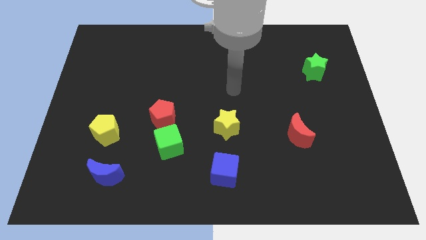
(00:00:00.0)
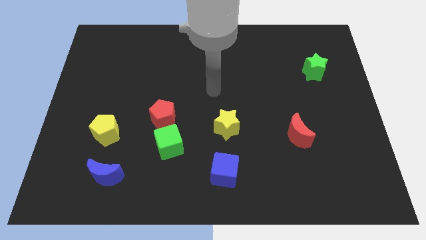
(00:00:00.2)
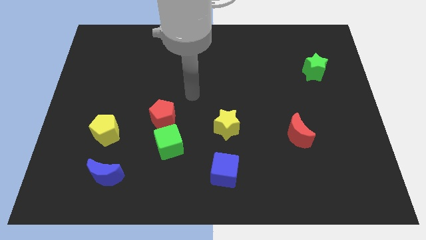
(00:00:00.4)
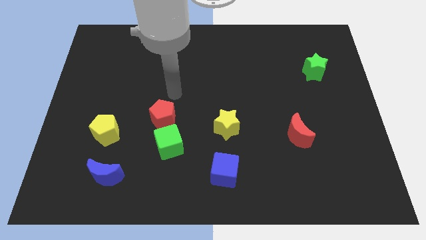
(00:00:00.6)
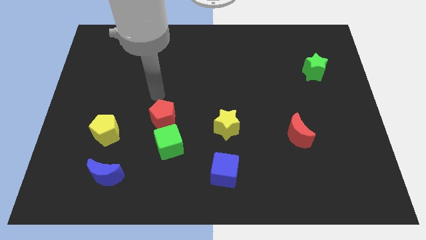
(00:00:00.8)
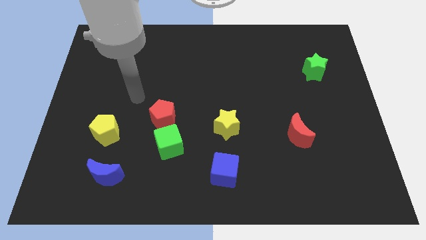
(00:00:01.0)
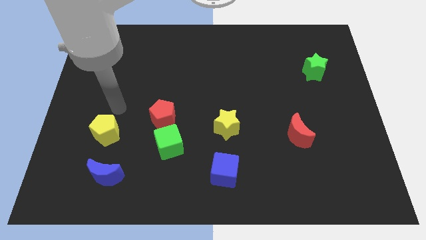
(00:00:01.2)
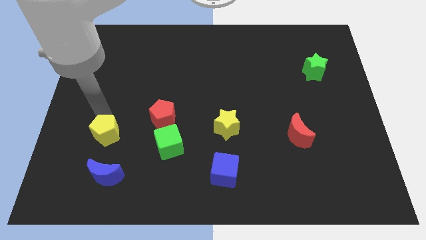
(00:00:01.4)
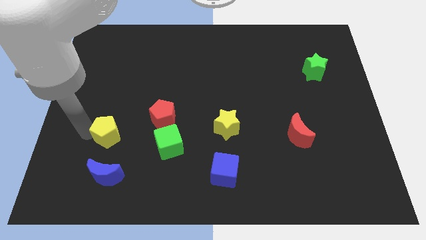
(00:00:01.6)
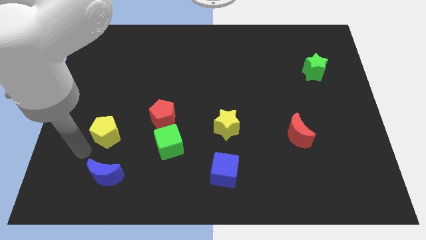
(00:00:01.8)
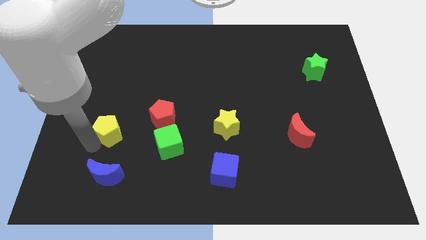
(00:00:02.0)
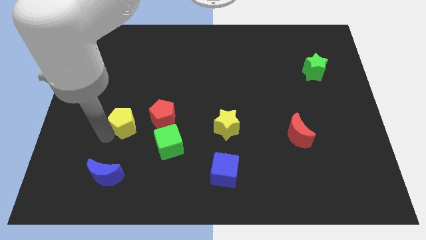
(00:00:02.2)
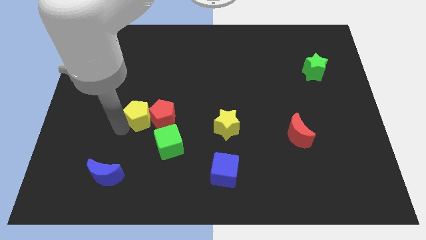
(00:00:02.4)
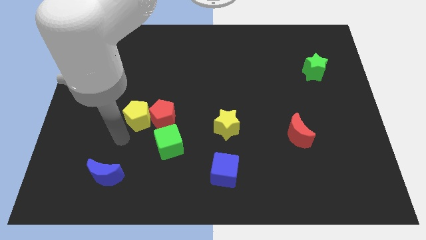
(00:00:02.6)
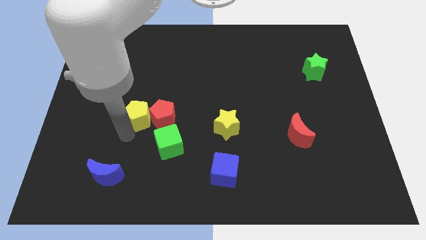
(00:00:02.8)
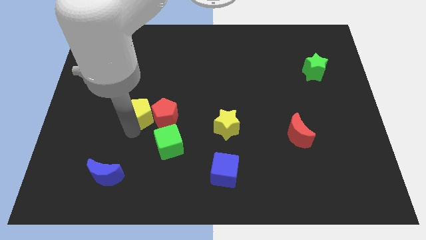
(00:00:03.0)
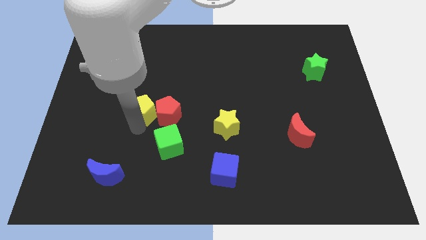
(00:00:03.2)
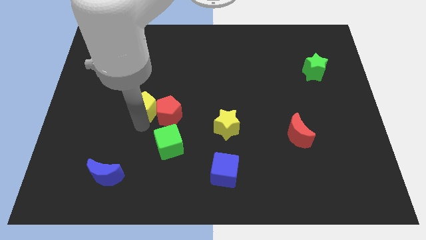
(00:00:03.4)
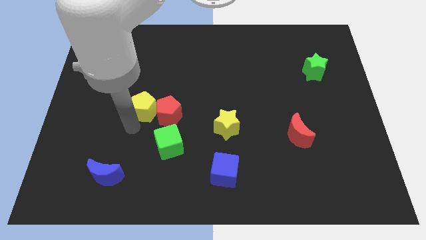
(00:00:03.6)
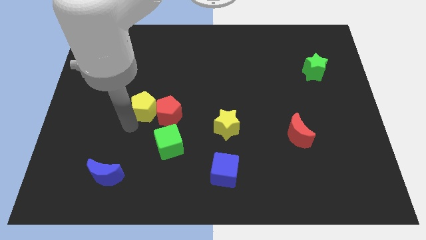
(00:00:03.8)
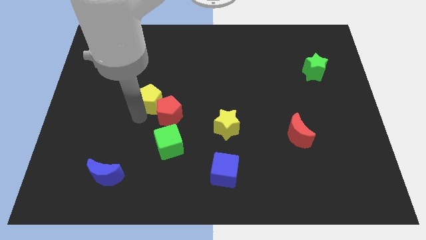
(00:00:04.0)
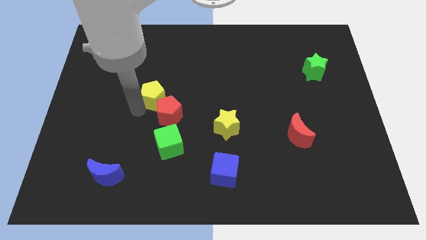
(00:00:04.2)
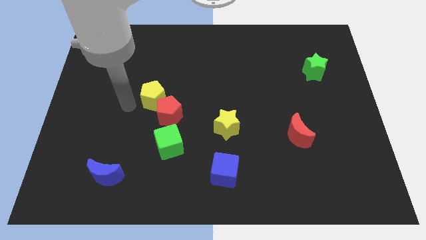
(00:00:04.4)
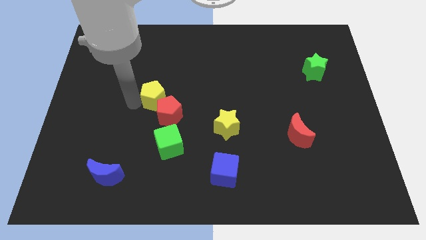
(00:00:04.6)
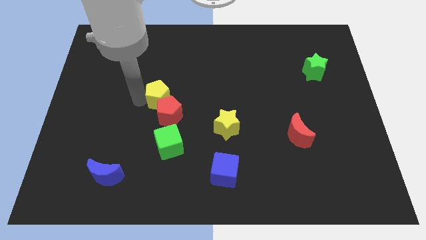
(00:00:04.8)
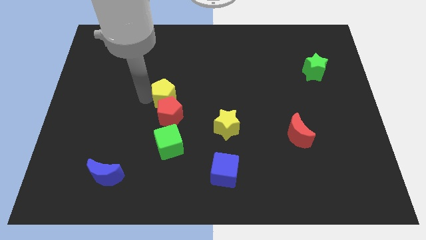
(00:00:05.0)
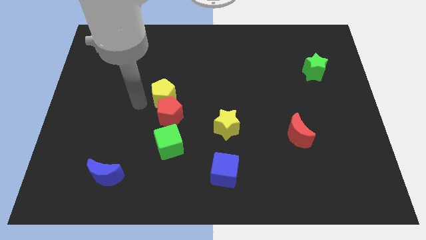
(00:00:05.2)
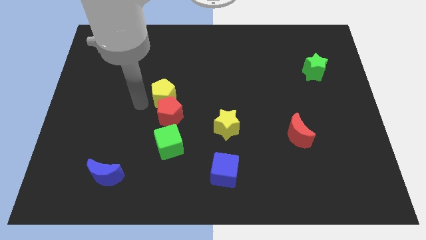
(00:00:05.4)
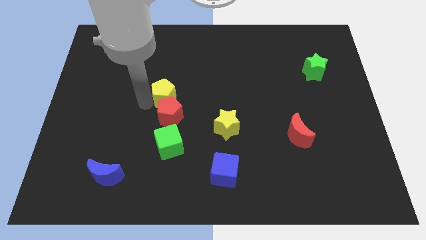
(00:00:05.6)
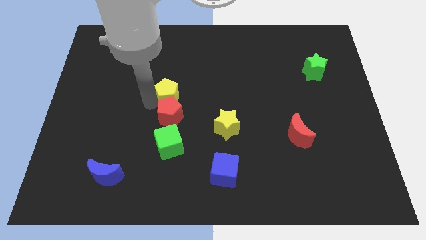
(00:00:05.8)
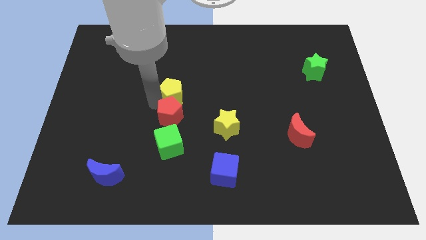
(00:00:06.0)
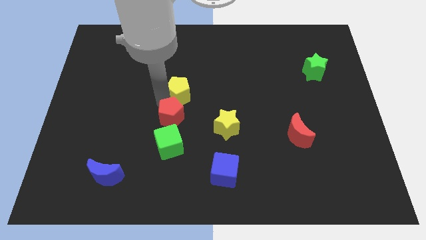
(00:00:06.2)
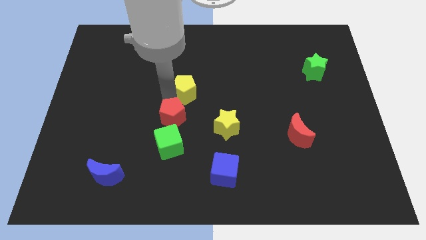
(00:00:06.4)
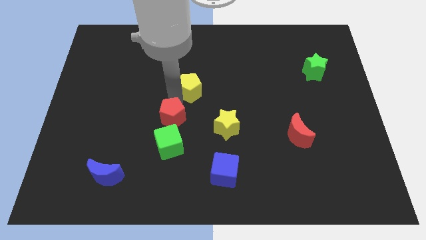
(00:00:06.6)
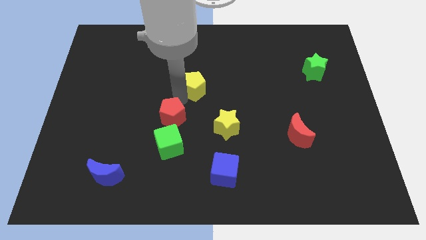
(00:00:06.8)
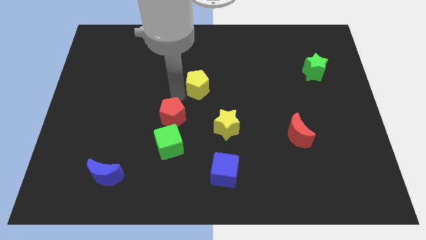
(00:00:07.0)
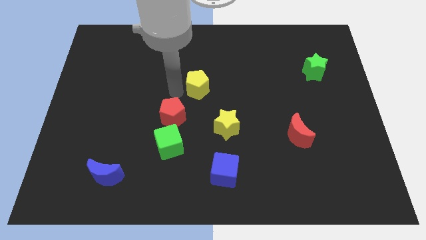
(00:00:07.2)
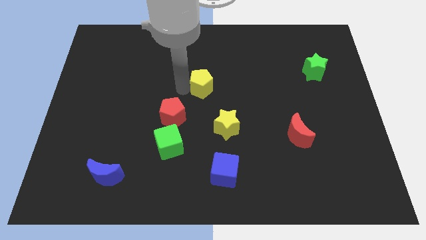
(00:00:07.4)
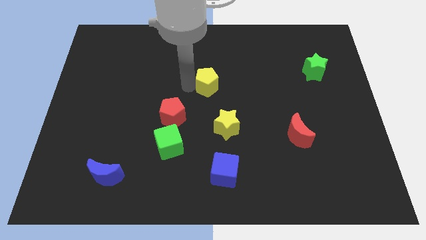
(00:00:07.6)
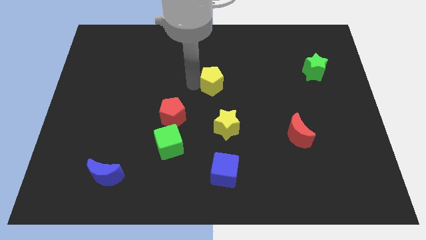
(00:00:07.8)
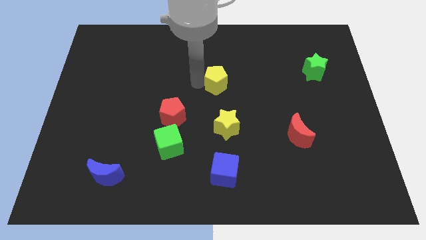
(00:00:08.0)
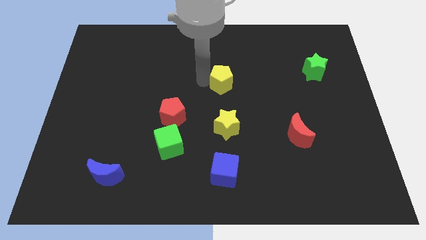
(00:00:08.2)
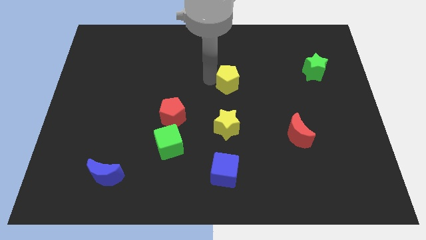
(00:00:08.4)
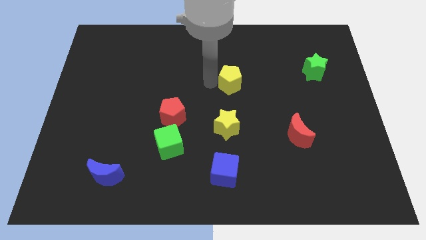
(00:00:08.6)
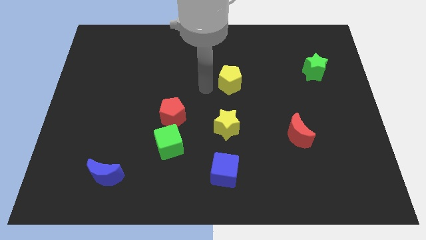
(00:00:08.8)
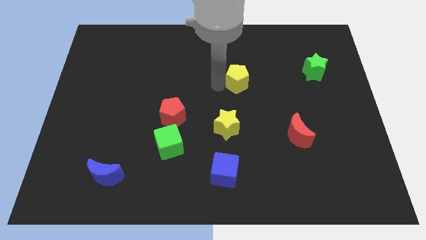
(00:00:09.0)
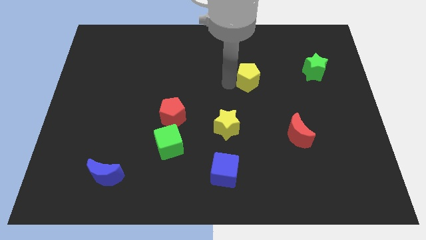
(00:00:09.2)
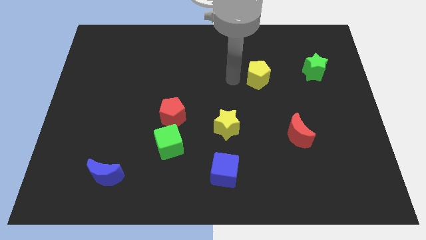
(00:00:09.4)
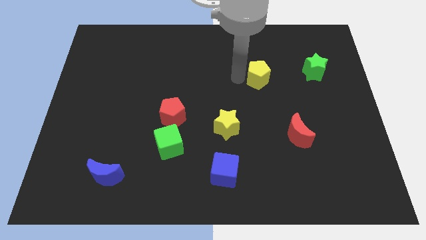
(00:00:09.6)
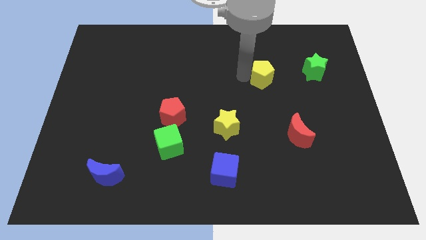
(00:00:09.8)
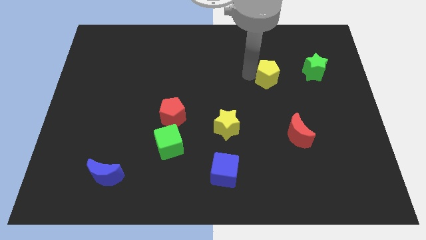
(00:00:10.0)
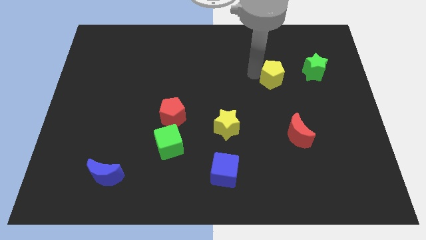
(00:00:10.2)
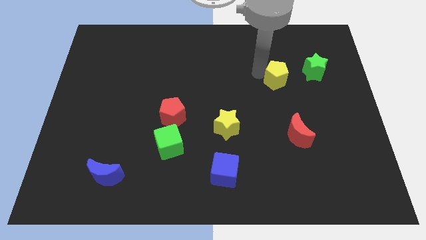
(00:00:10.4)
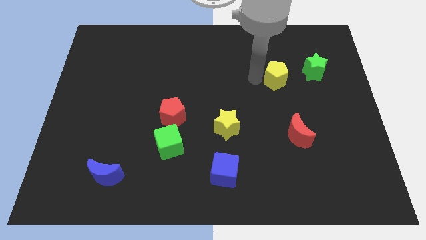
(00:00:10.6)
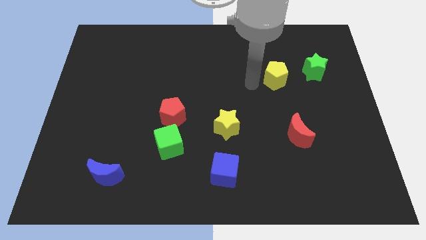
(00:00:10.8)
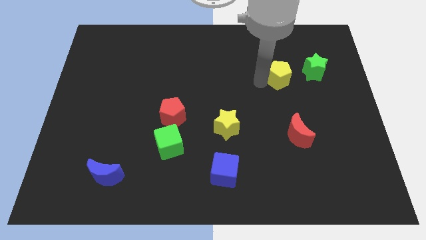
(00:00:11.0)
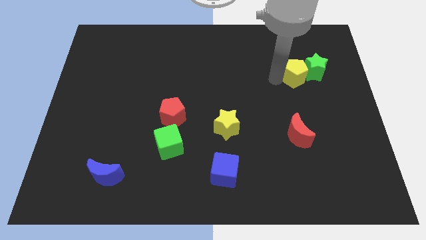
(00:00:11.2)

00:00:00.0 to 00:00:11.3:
push the yellow pentagon to the green star

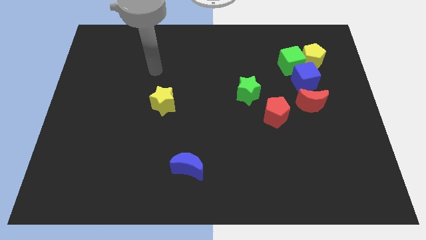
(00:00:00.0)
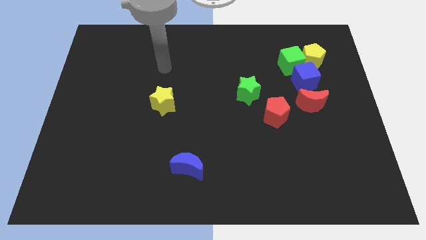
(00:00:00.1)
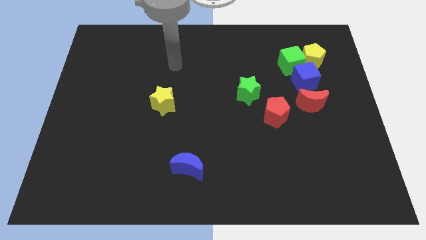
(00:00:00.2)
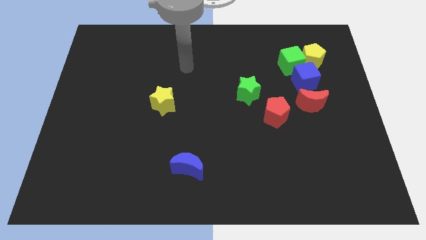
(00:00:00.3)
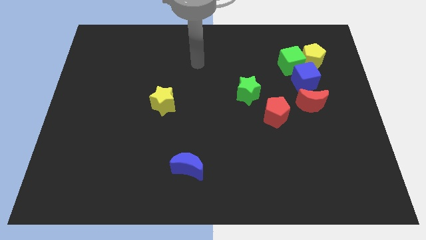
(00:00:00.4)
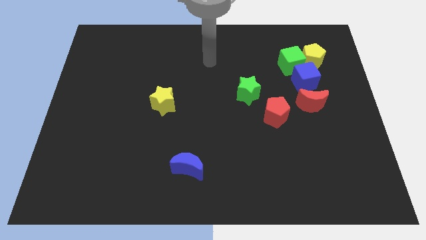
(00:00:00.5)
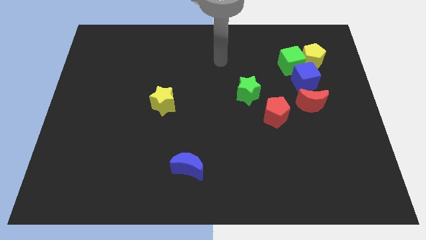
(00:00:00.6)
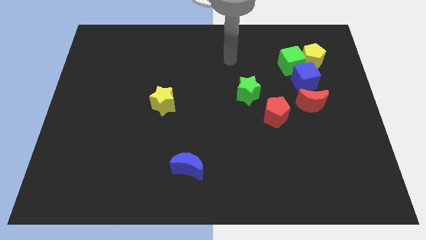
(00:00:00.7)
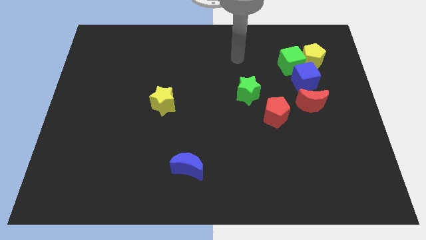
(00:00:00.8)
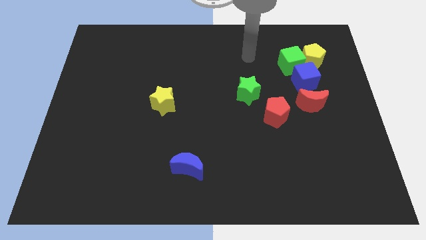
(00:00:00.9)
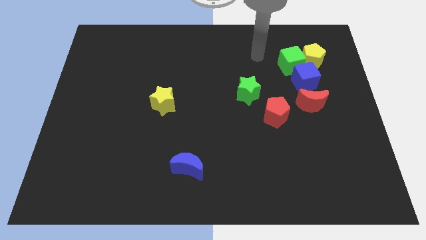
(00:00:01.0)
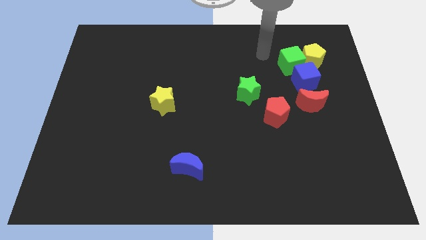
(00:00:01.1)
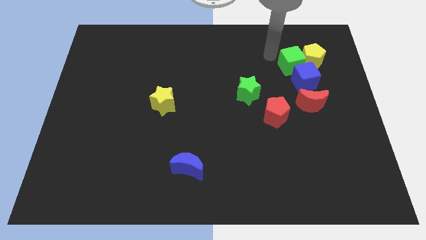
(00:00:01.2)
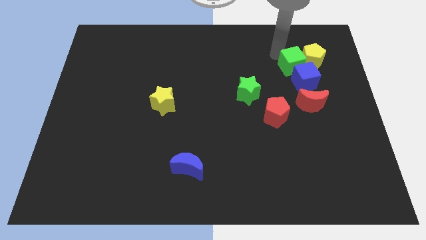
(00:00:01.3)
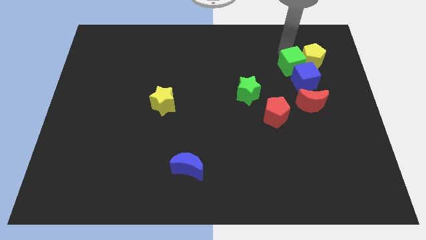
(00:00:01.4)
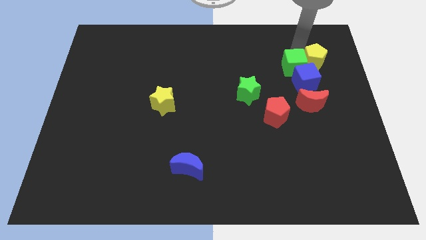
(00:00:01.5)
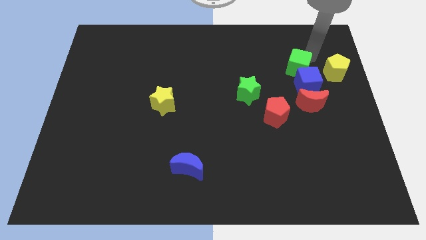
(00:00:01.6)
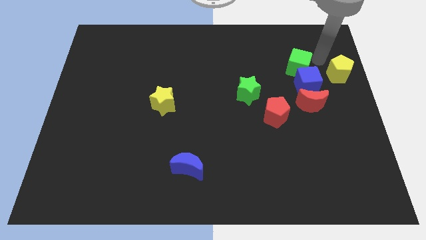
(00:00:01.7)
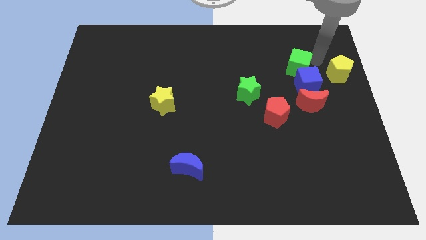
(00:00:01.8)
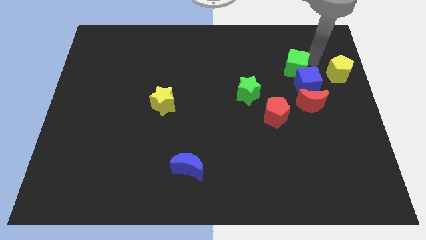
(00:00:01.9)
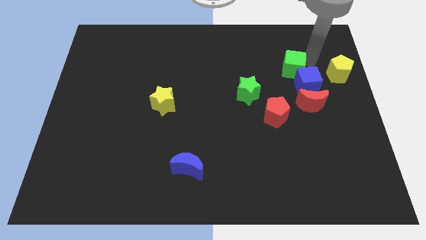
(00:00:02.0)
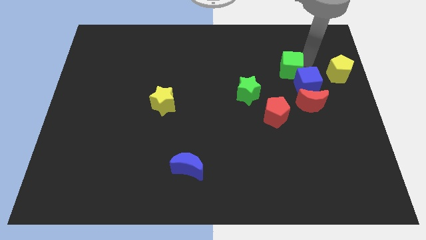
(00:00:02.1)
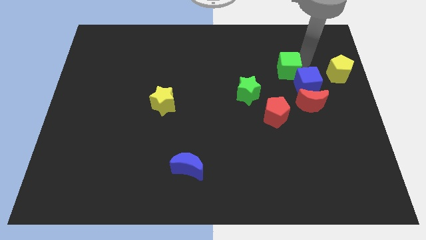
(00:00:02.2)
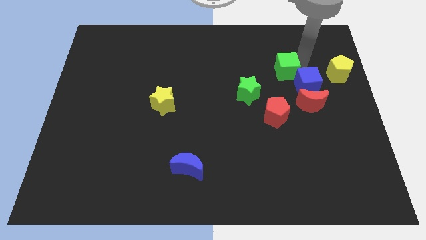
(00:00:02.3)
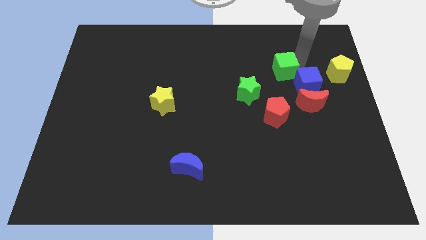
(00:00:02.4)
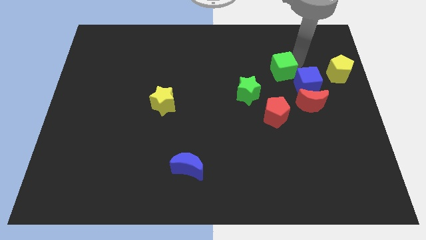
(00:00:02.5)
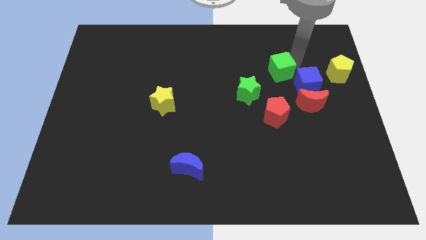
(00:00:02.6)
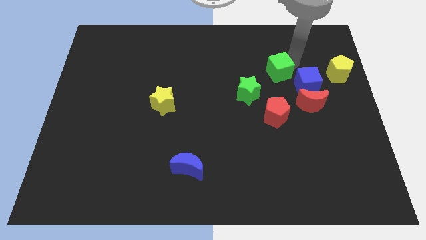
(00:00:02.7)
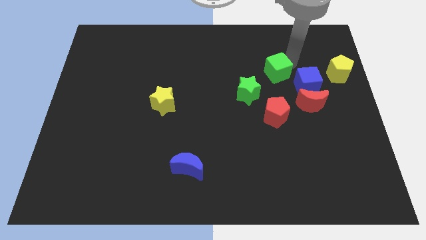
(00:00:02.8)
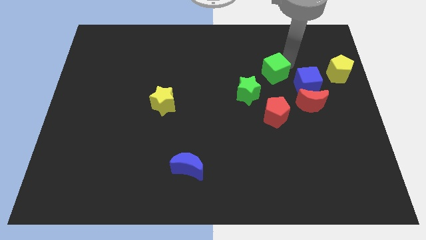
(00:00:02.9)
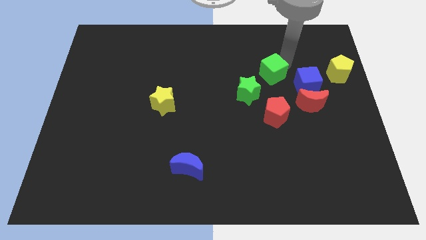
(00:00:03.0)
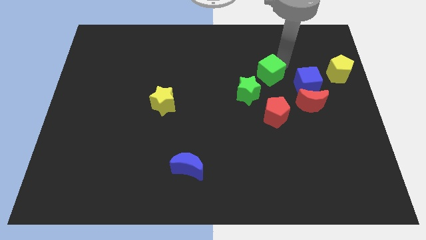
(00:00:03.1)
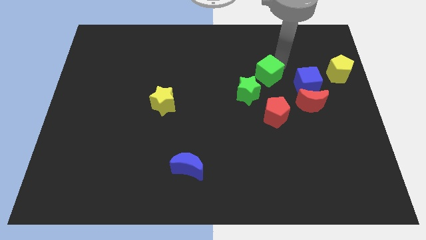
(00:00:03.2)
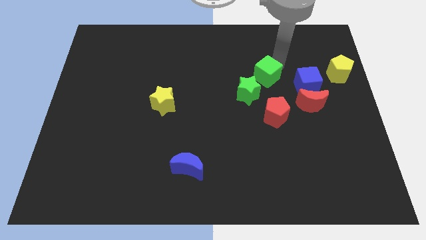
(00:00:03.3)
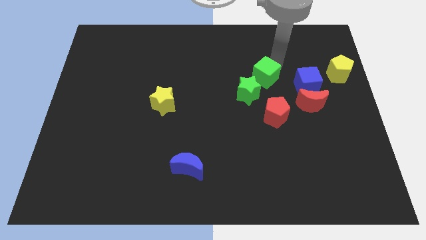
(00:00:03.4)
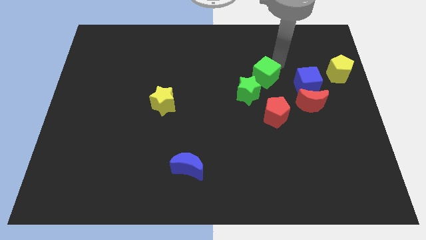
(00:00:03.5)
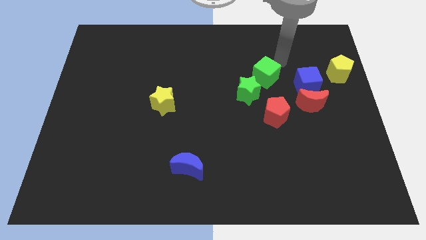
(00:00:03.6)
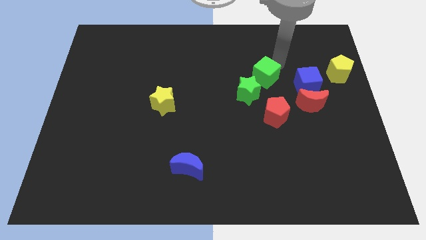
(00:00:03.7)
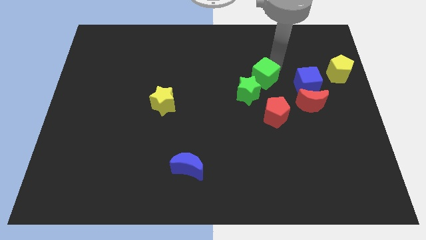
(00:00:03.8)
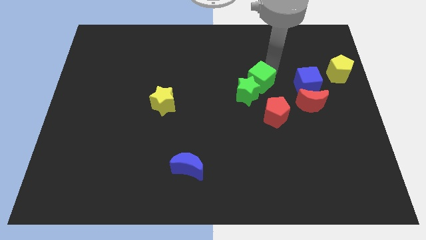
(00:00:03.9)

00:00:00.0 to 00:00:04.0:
slide the green cube to the green star
